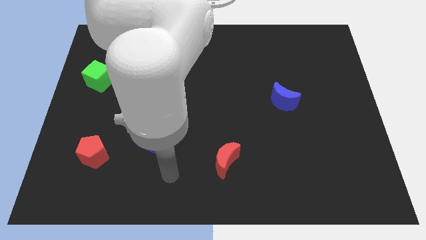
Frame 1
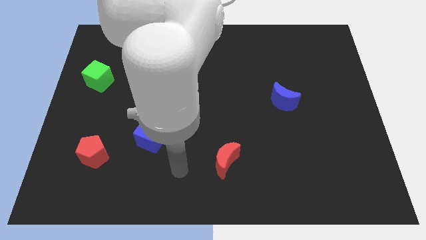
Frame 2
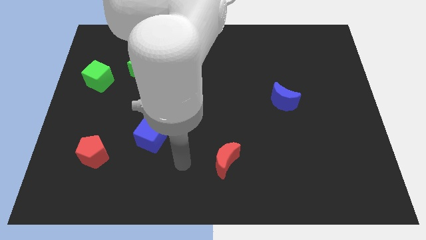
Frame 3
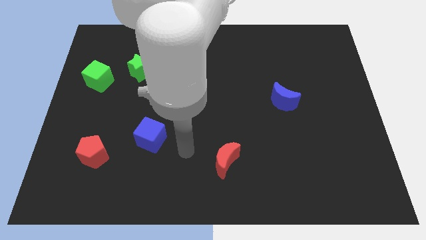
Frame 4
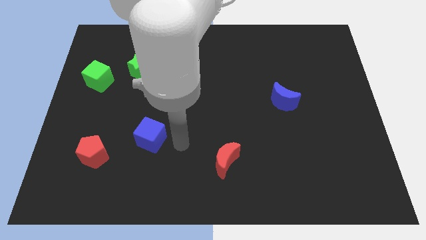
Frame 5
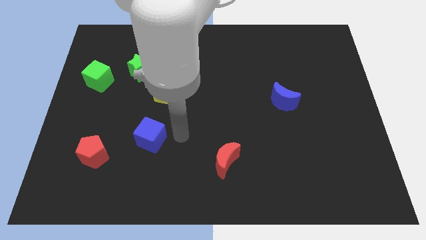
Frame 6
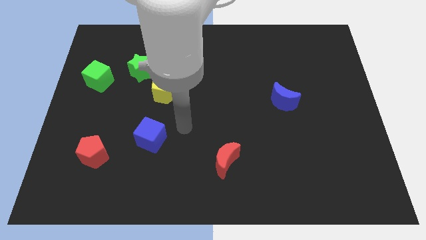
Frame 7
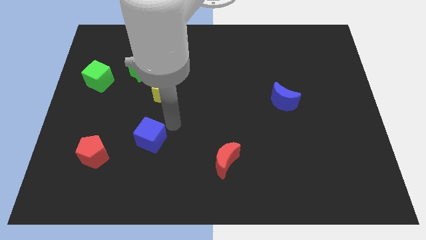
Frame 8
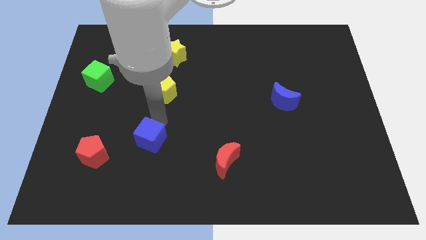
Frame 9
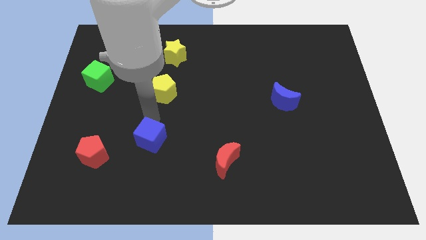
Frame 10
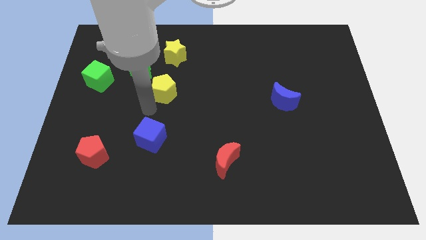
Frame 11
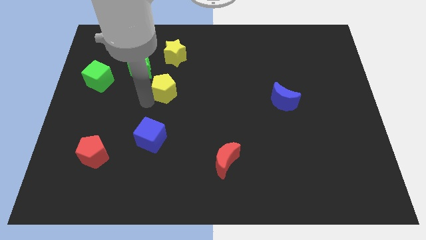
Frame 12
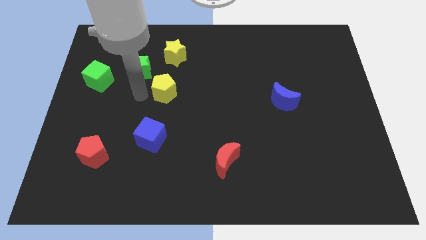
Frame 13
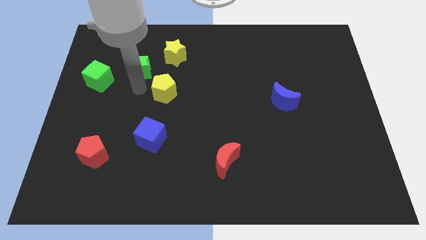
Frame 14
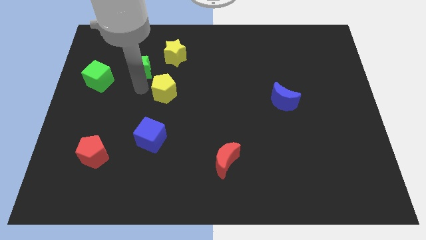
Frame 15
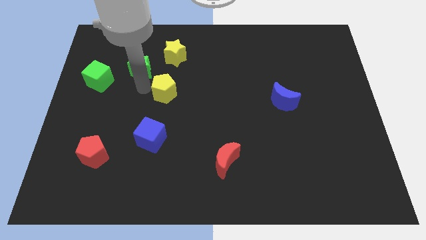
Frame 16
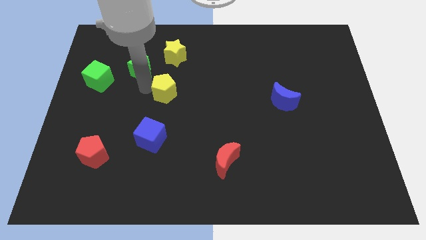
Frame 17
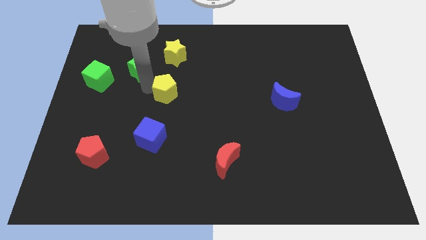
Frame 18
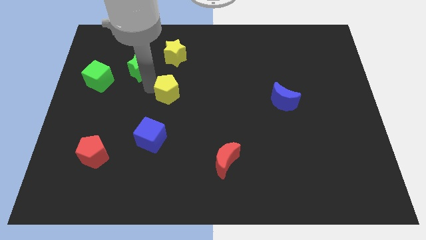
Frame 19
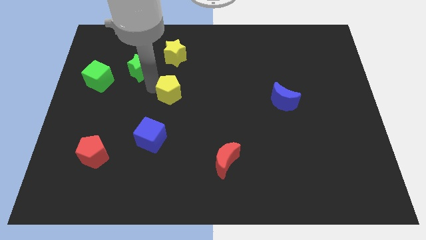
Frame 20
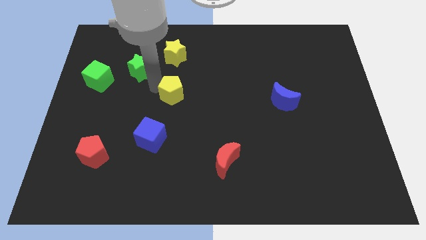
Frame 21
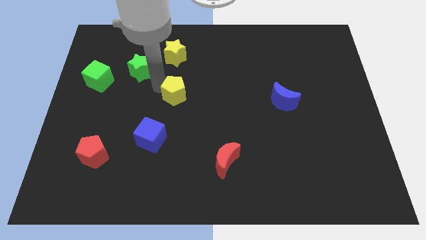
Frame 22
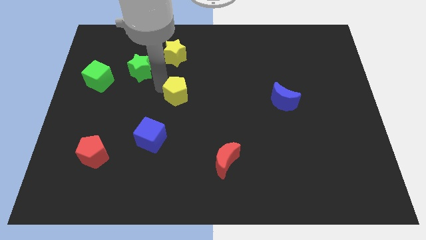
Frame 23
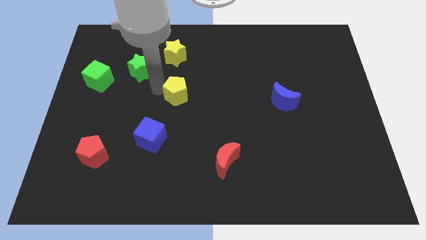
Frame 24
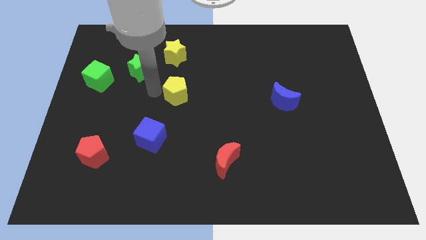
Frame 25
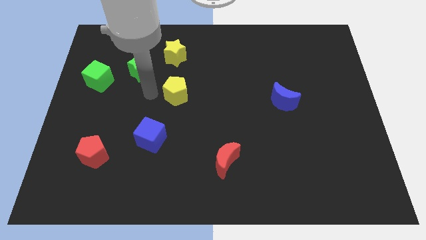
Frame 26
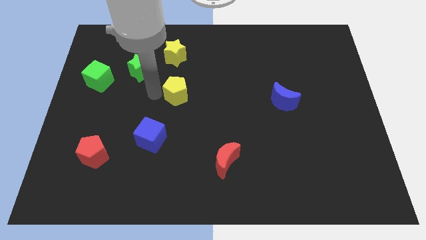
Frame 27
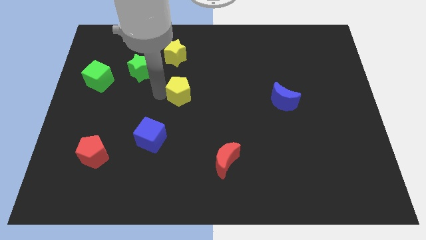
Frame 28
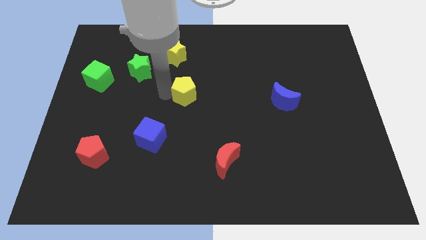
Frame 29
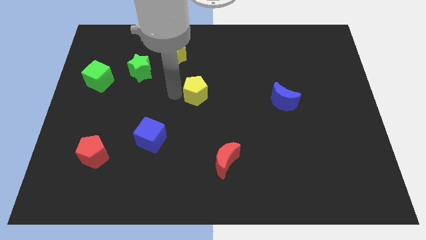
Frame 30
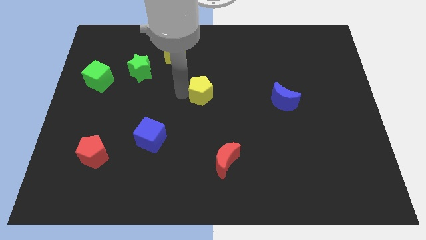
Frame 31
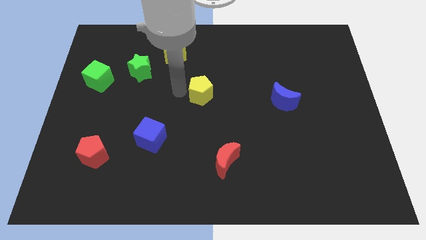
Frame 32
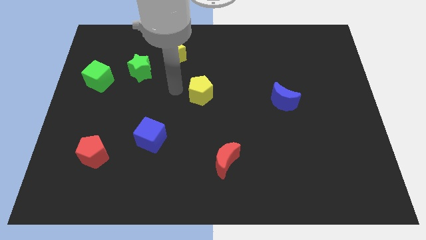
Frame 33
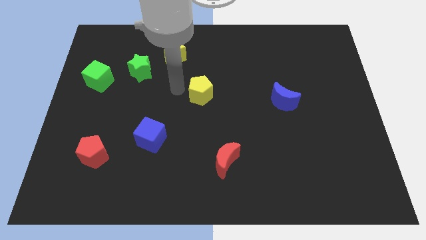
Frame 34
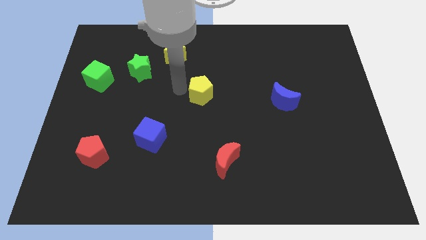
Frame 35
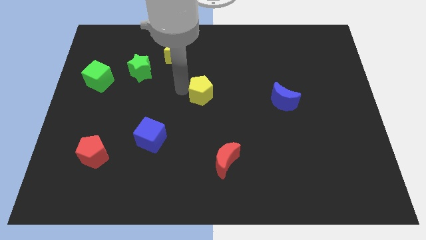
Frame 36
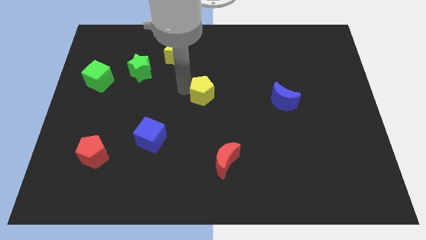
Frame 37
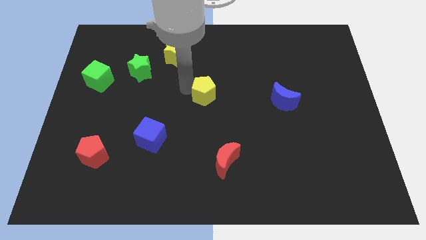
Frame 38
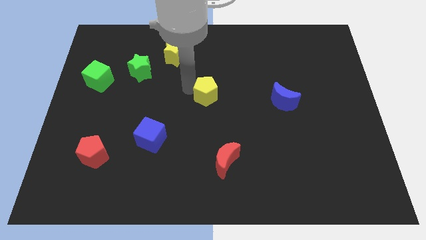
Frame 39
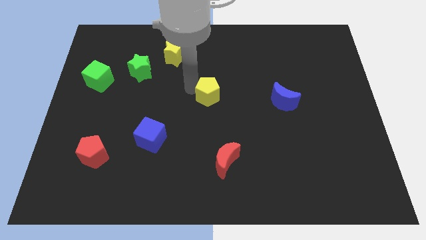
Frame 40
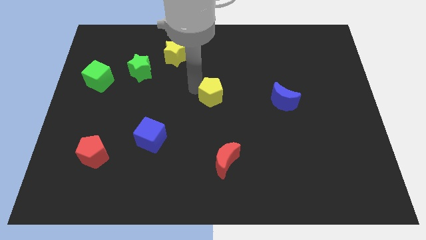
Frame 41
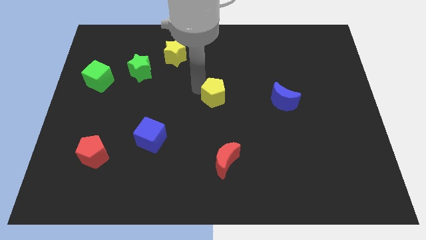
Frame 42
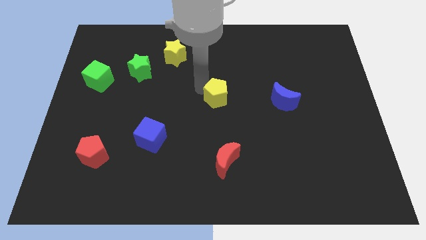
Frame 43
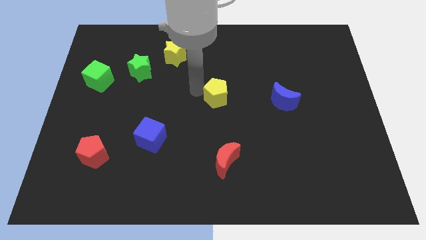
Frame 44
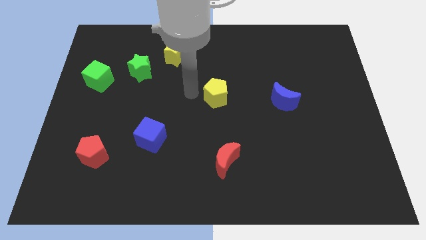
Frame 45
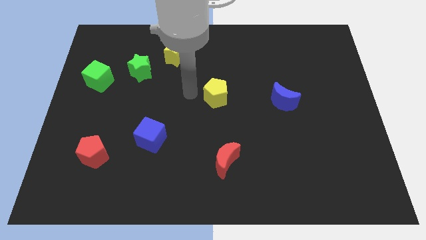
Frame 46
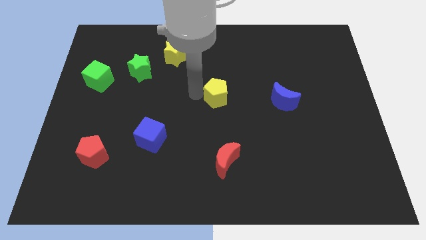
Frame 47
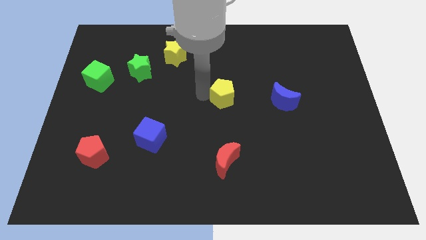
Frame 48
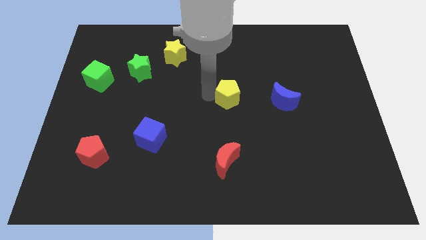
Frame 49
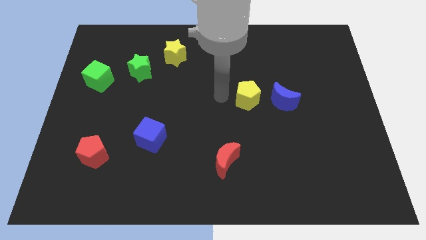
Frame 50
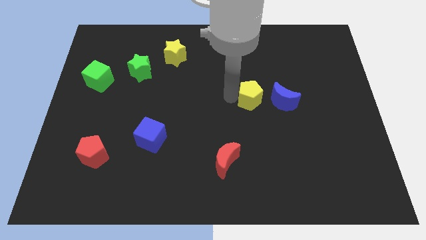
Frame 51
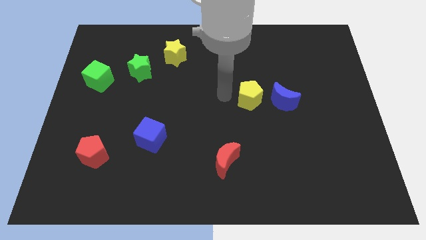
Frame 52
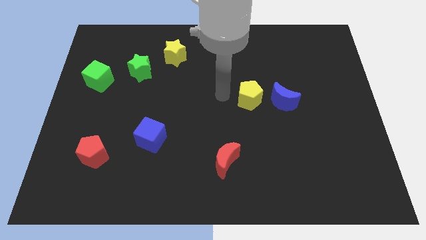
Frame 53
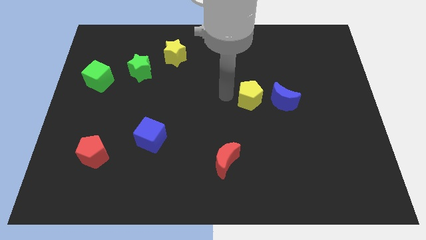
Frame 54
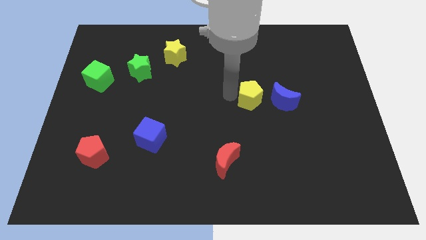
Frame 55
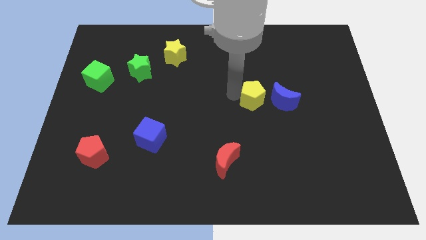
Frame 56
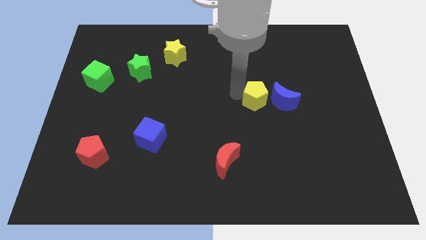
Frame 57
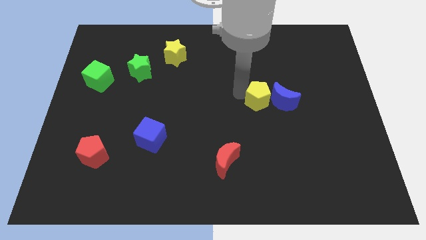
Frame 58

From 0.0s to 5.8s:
put the yellow pentagon to the blue moon

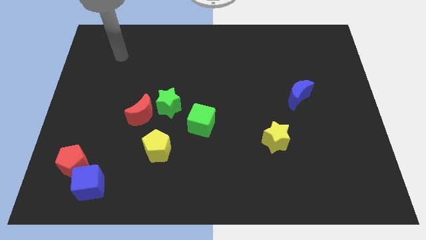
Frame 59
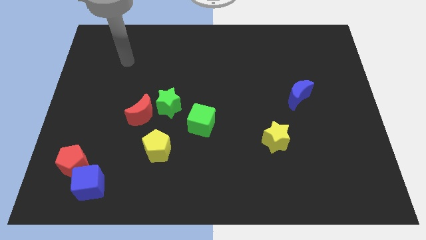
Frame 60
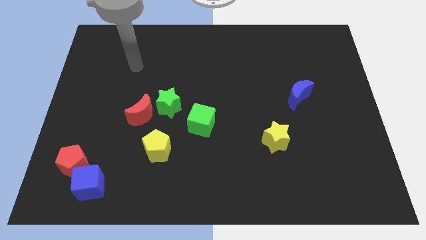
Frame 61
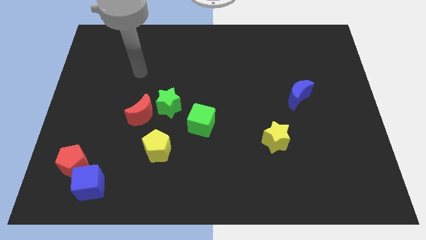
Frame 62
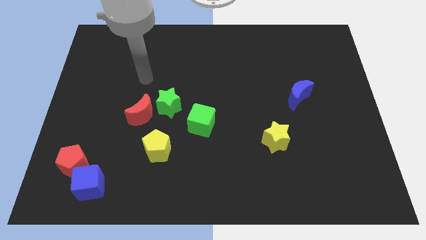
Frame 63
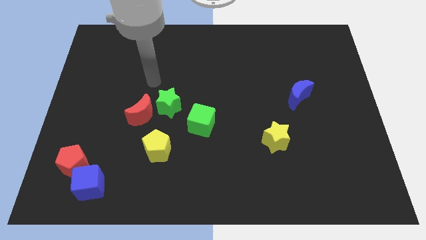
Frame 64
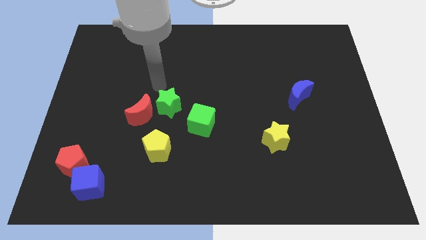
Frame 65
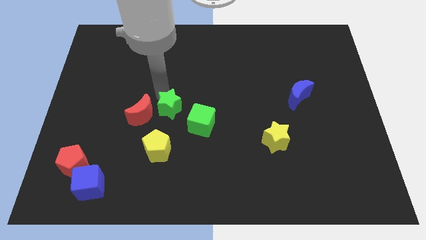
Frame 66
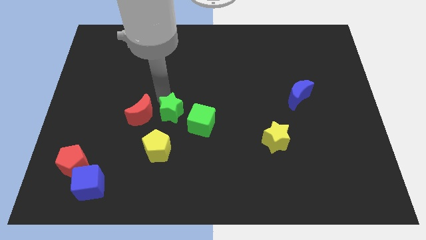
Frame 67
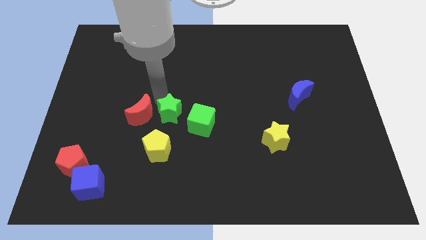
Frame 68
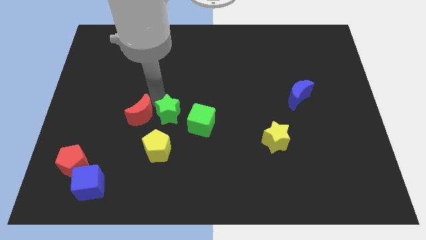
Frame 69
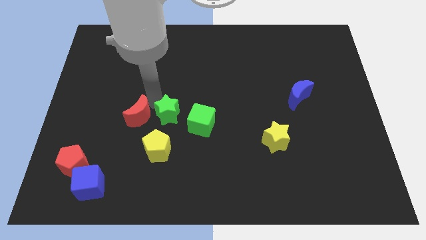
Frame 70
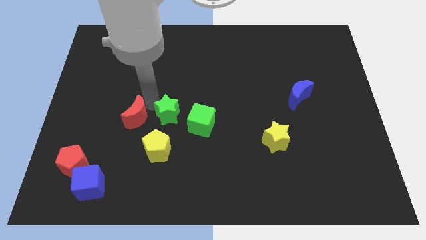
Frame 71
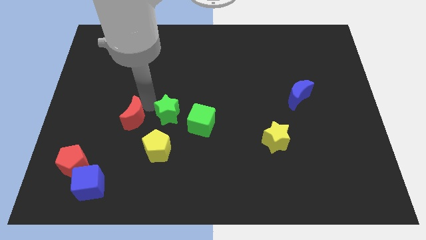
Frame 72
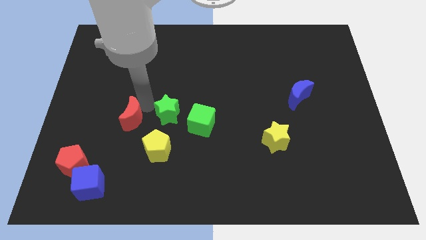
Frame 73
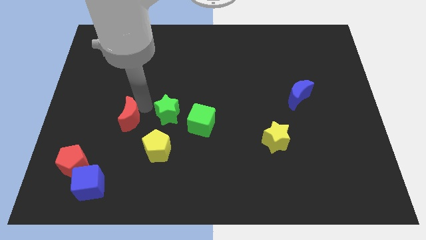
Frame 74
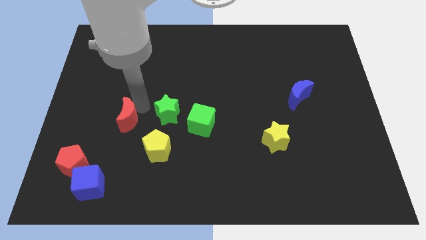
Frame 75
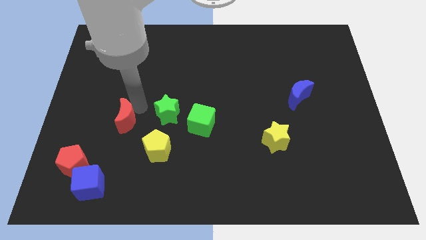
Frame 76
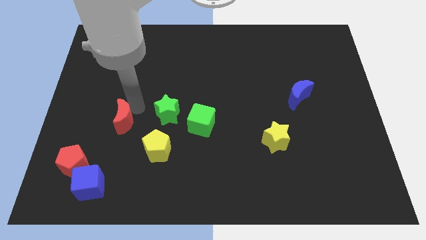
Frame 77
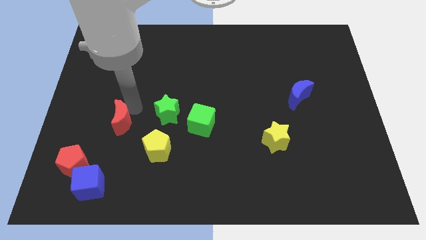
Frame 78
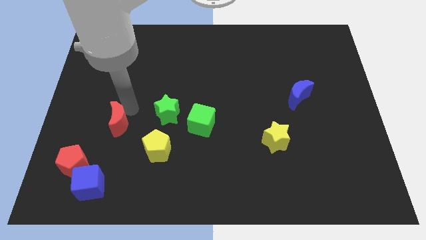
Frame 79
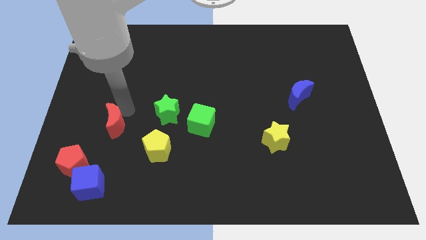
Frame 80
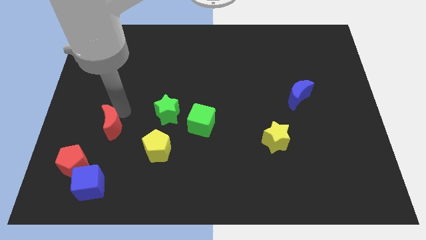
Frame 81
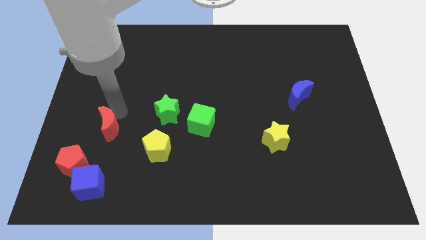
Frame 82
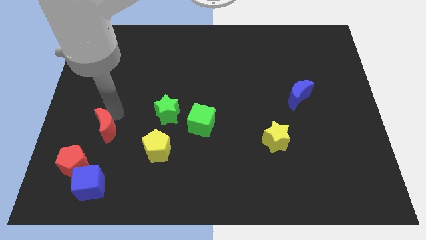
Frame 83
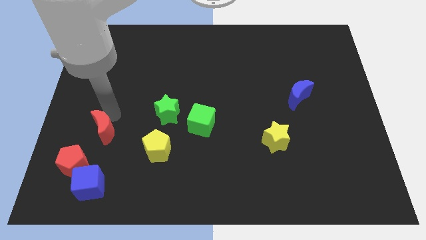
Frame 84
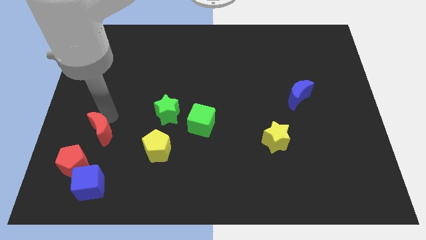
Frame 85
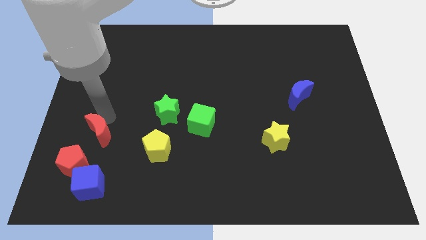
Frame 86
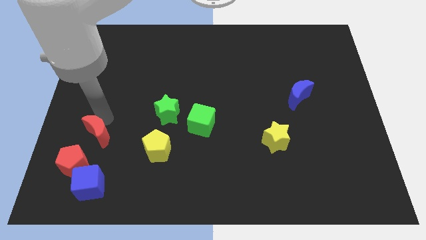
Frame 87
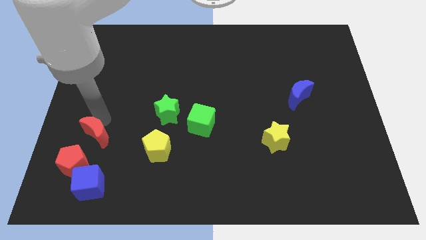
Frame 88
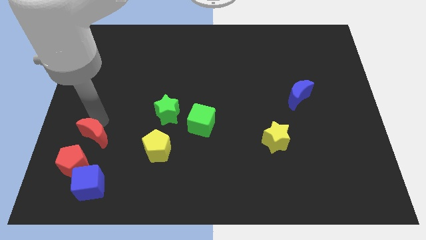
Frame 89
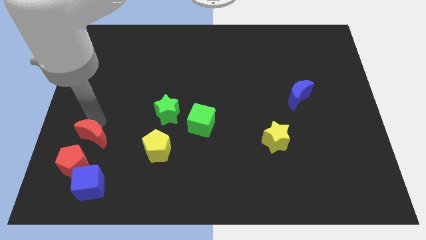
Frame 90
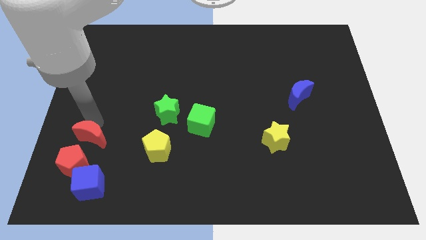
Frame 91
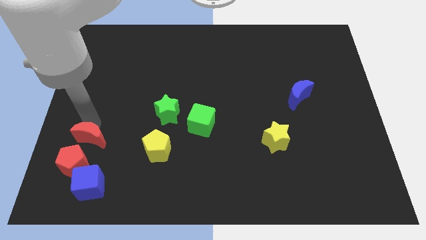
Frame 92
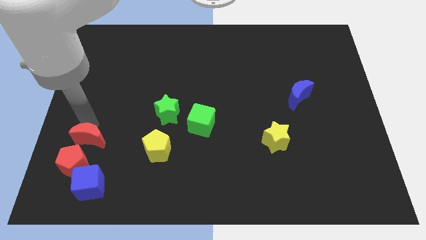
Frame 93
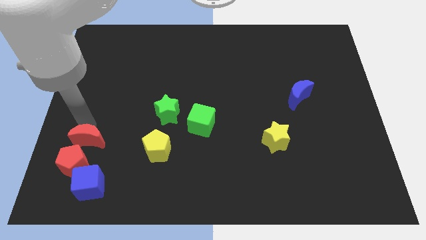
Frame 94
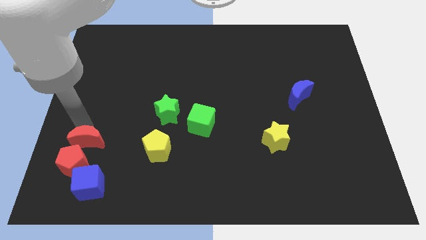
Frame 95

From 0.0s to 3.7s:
move the red moon towards the red pentagon
